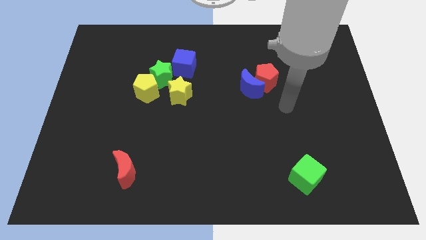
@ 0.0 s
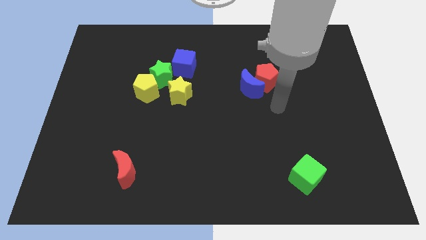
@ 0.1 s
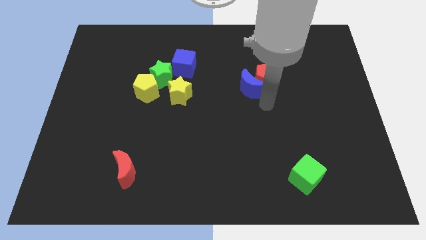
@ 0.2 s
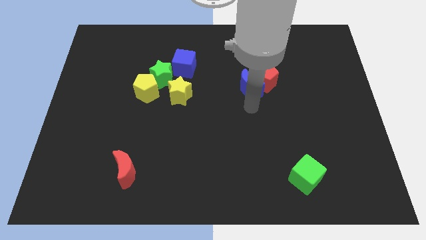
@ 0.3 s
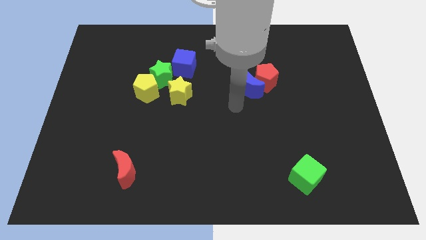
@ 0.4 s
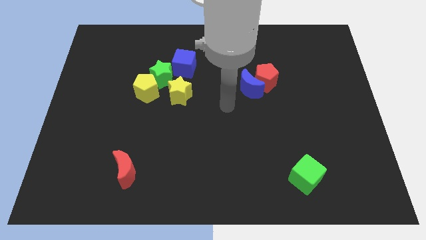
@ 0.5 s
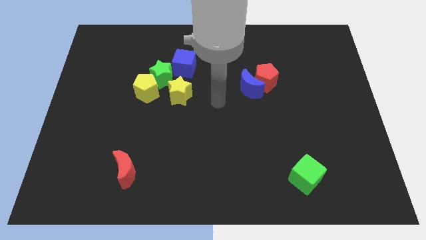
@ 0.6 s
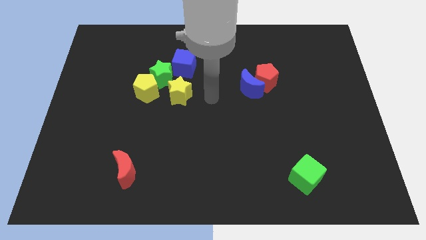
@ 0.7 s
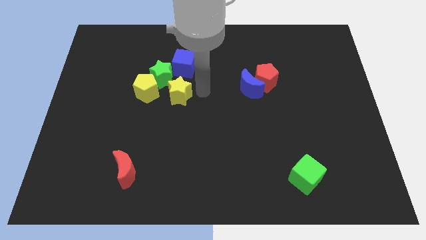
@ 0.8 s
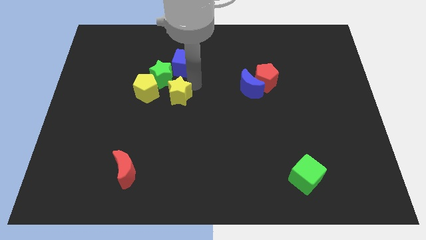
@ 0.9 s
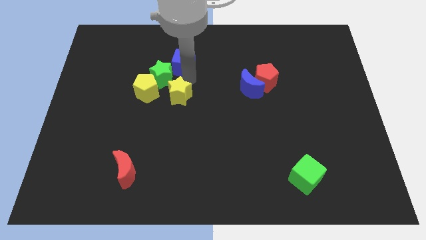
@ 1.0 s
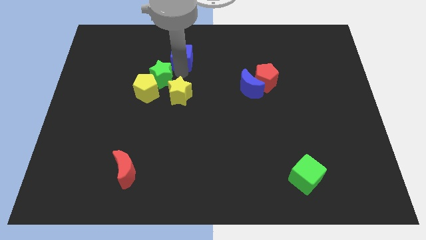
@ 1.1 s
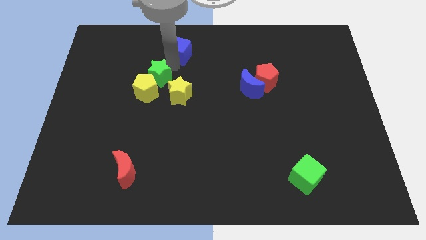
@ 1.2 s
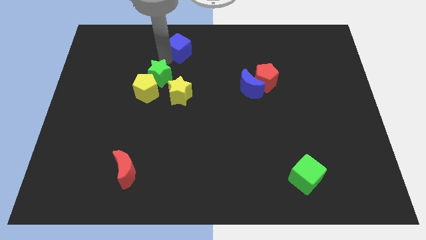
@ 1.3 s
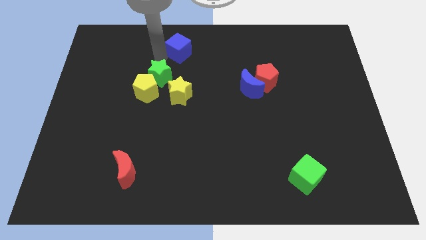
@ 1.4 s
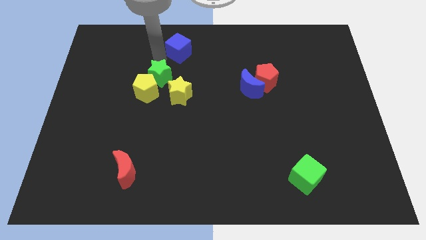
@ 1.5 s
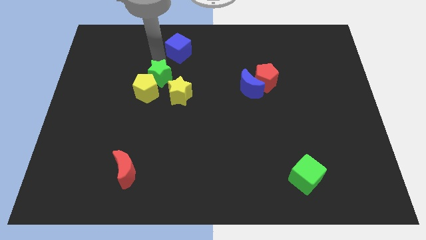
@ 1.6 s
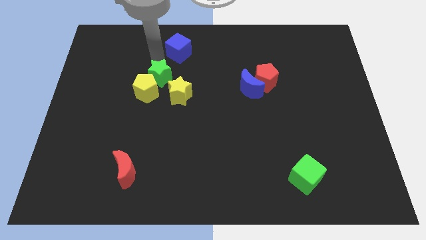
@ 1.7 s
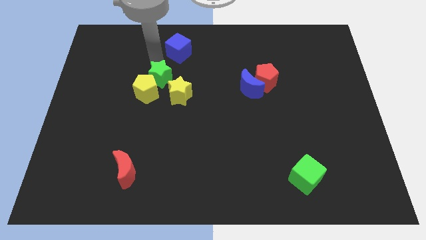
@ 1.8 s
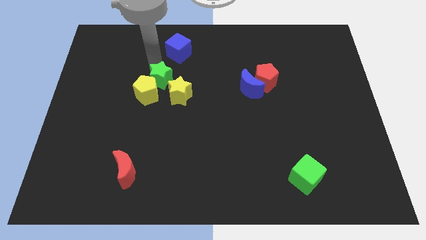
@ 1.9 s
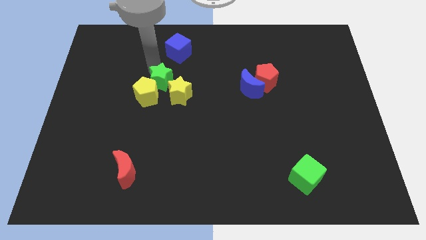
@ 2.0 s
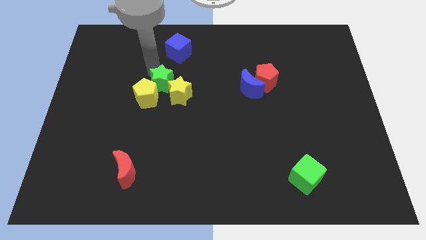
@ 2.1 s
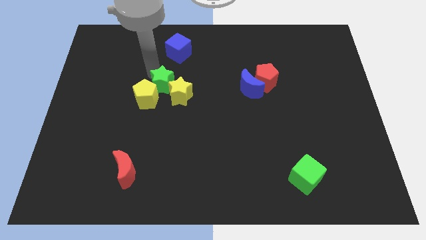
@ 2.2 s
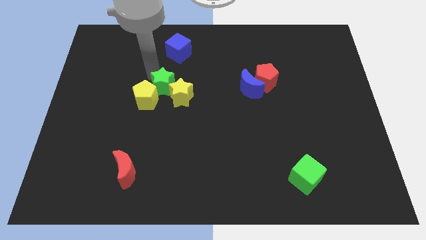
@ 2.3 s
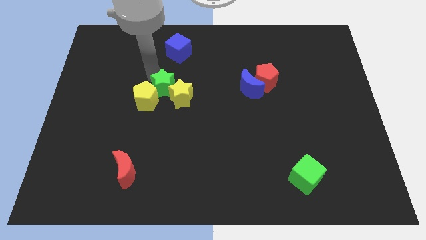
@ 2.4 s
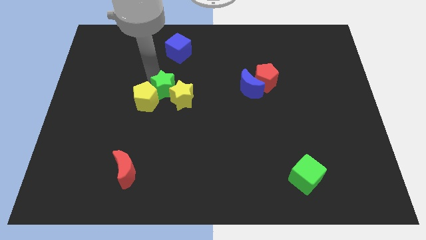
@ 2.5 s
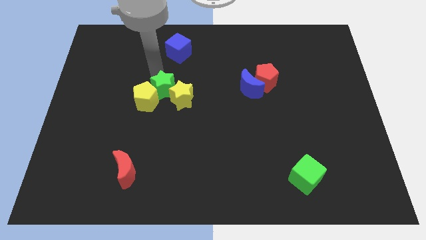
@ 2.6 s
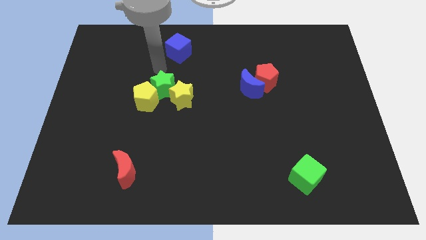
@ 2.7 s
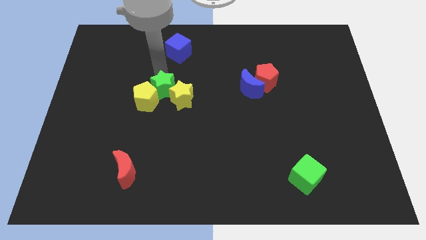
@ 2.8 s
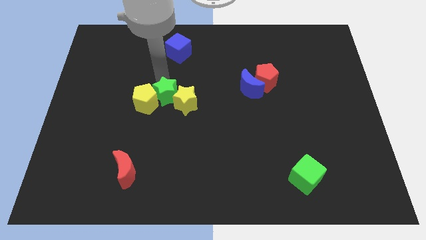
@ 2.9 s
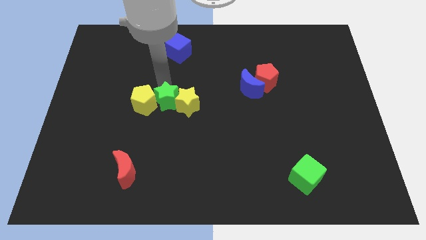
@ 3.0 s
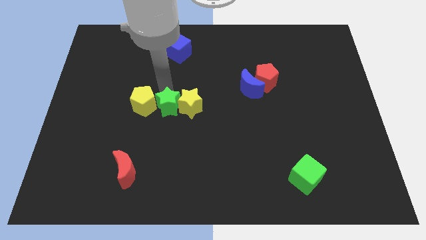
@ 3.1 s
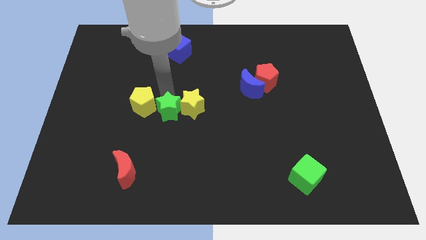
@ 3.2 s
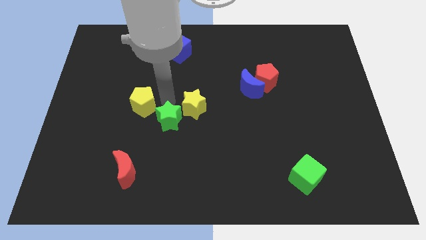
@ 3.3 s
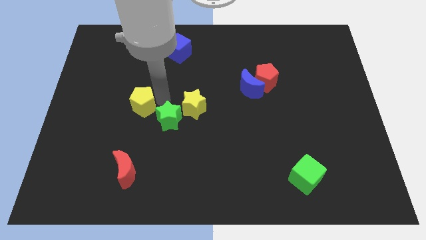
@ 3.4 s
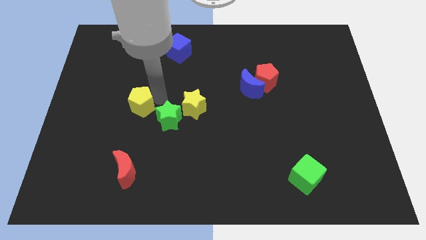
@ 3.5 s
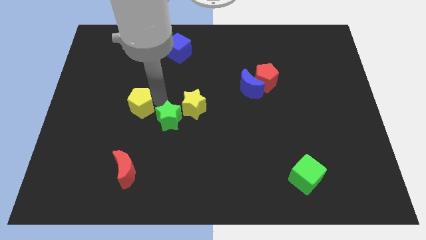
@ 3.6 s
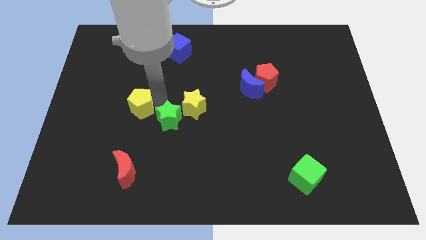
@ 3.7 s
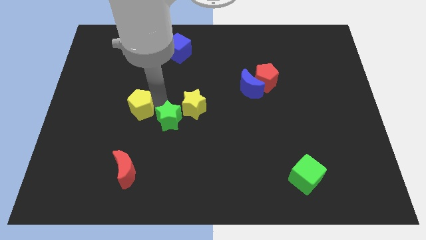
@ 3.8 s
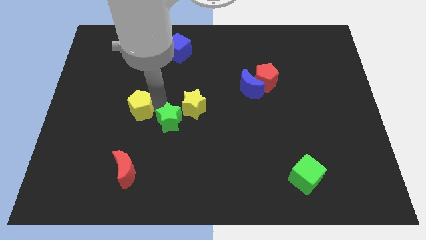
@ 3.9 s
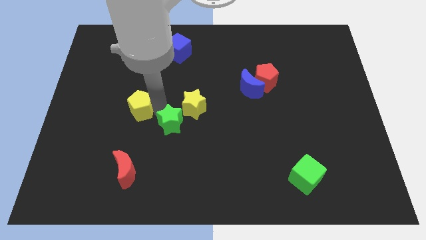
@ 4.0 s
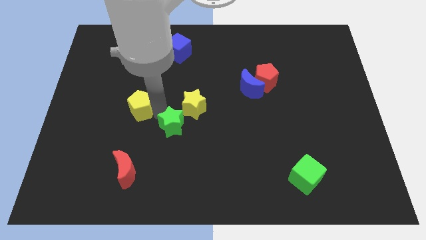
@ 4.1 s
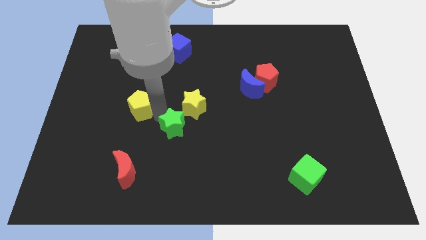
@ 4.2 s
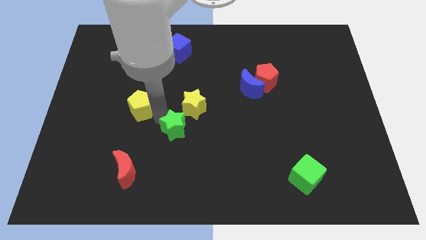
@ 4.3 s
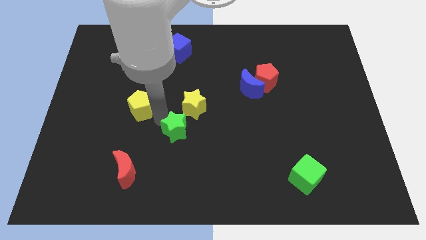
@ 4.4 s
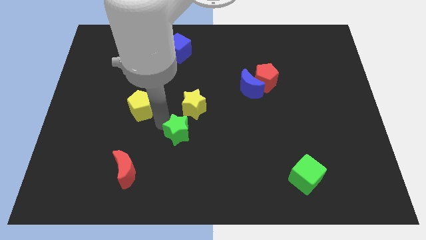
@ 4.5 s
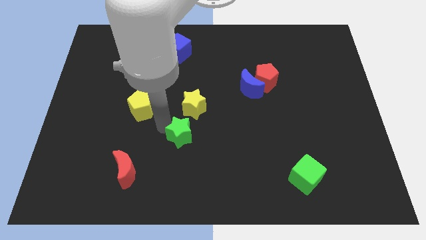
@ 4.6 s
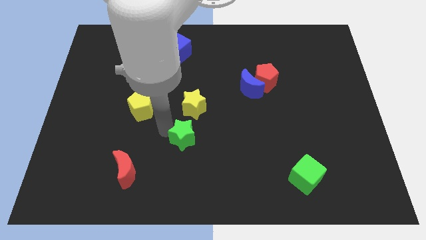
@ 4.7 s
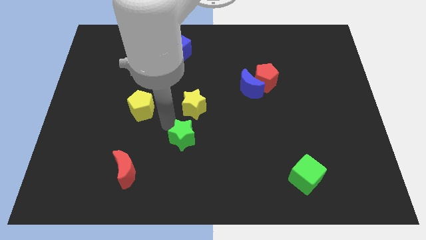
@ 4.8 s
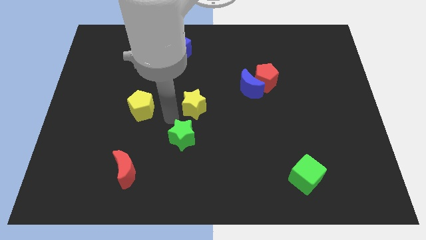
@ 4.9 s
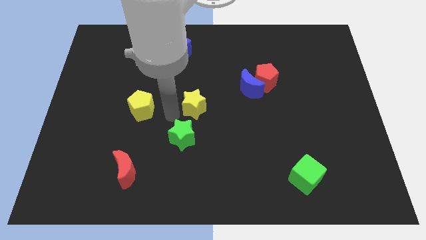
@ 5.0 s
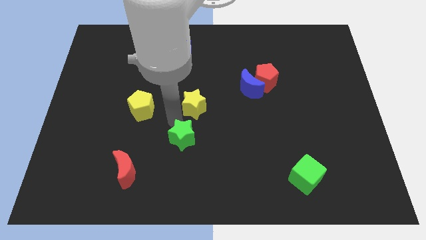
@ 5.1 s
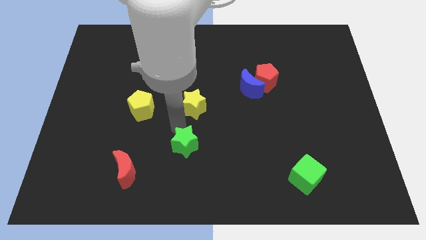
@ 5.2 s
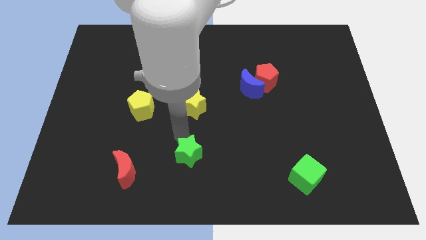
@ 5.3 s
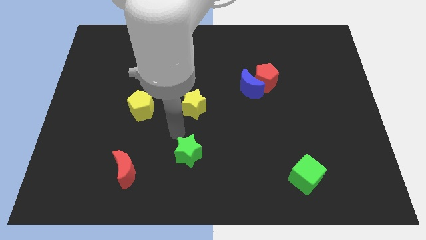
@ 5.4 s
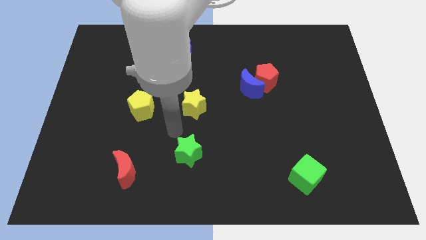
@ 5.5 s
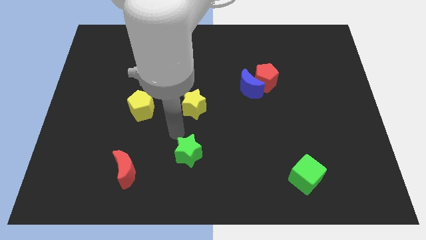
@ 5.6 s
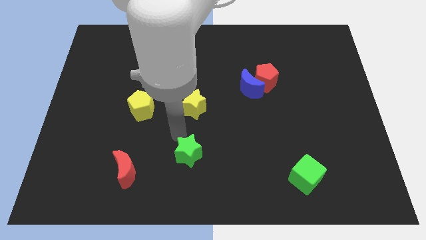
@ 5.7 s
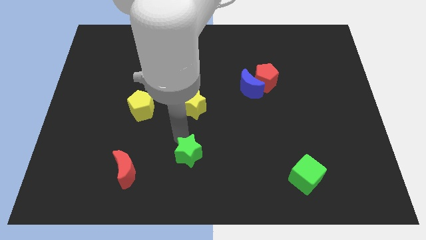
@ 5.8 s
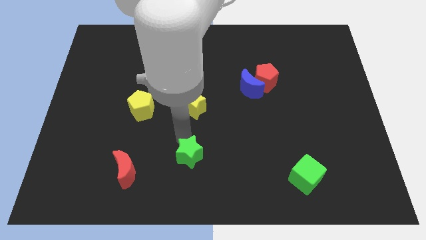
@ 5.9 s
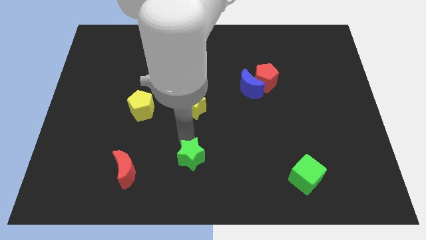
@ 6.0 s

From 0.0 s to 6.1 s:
push the green star to the bottom
